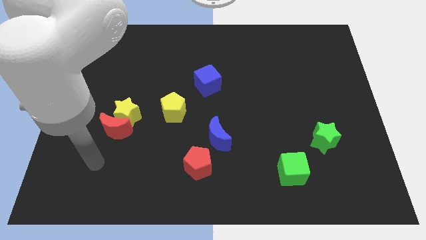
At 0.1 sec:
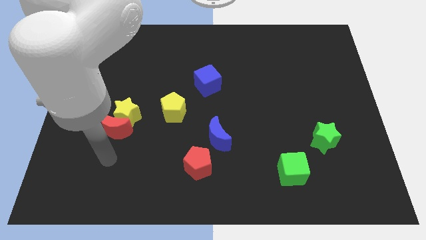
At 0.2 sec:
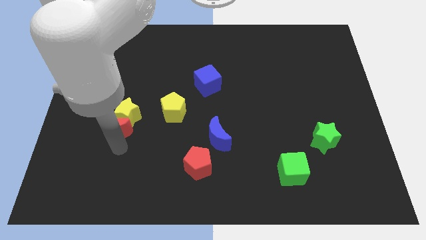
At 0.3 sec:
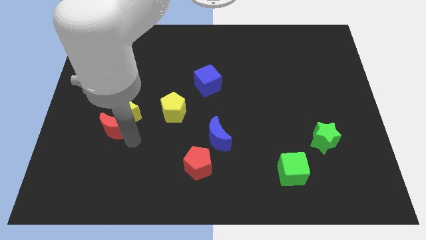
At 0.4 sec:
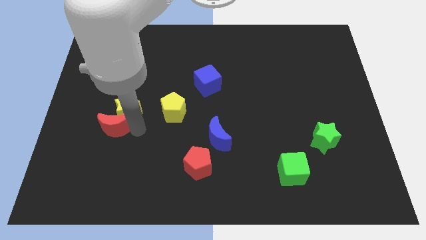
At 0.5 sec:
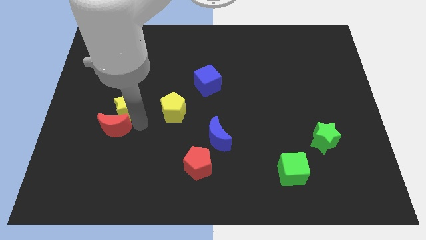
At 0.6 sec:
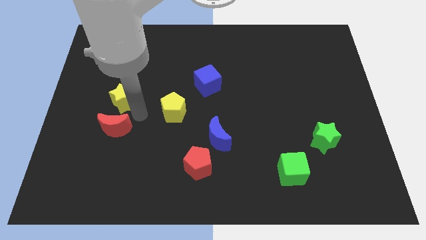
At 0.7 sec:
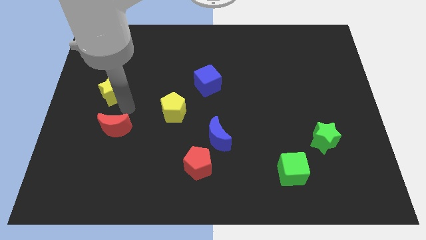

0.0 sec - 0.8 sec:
move the red moon away from the yellow star

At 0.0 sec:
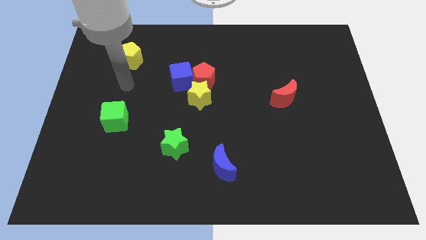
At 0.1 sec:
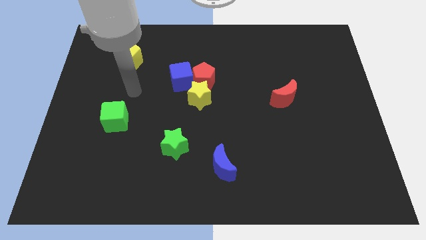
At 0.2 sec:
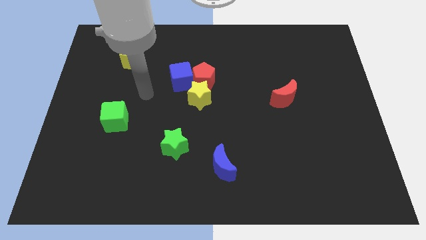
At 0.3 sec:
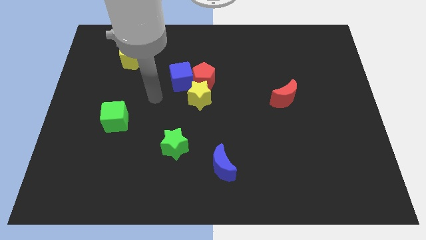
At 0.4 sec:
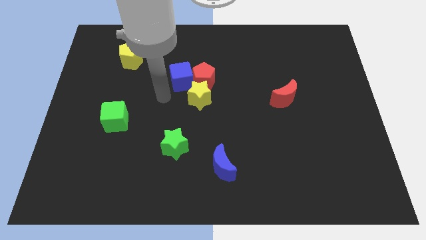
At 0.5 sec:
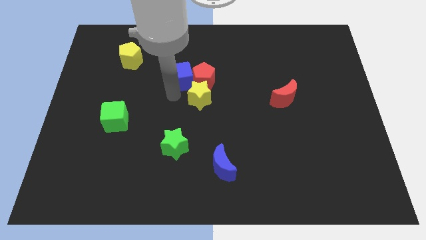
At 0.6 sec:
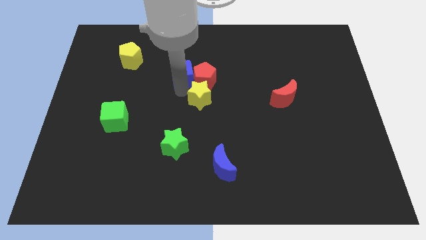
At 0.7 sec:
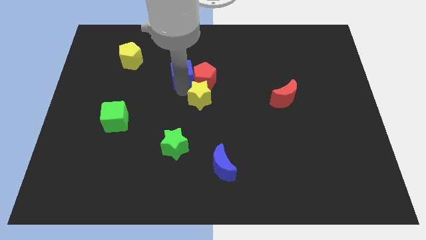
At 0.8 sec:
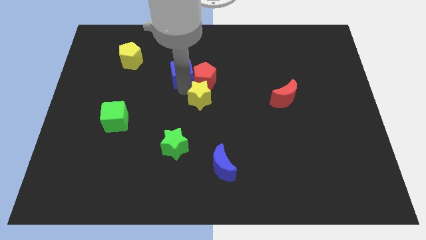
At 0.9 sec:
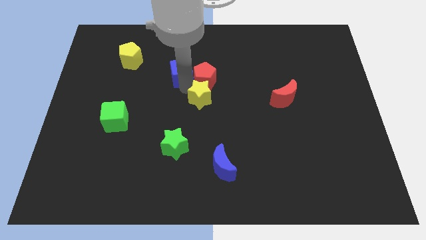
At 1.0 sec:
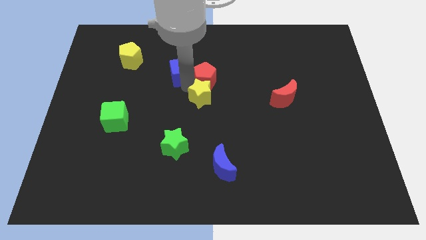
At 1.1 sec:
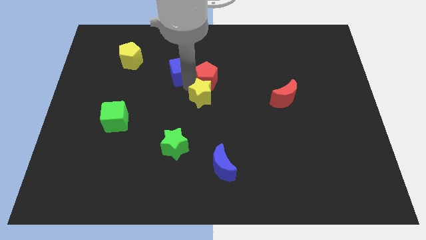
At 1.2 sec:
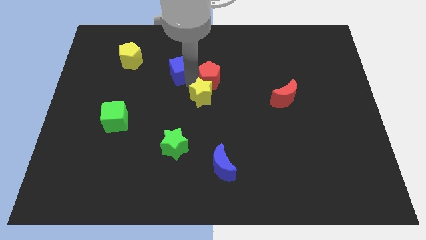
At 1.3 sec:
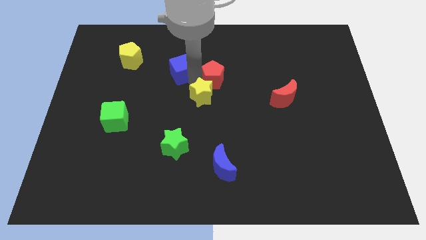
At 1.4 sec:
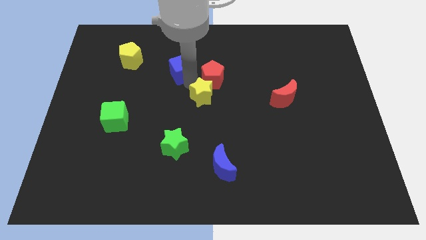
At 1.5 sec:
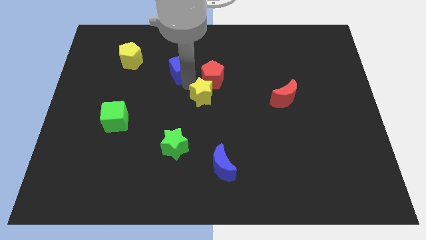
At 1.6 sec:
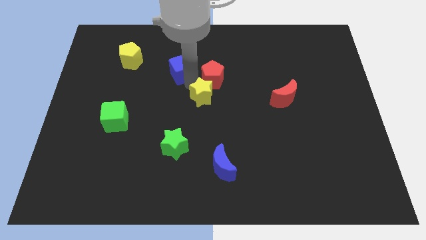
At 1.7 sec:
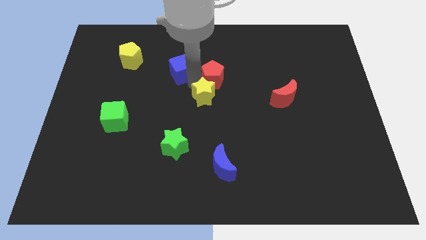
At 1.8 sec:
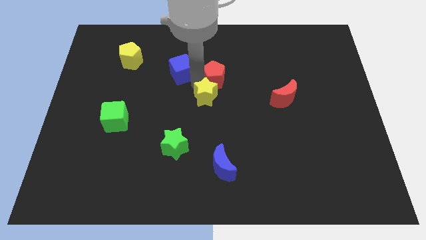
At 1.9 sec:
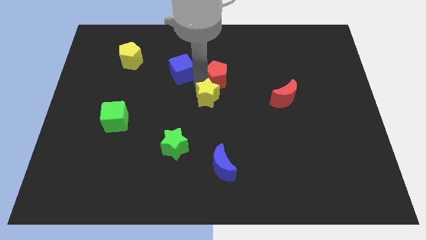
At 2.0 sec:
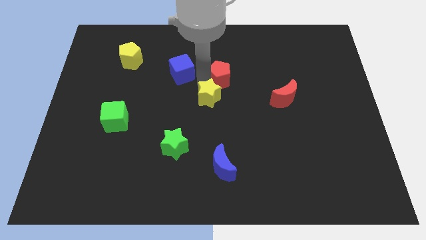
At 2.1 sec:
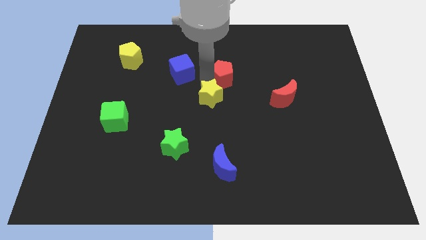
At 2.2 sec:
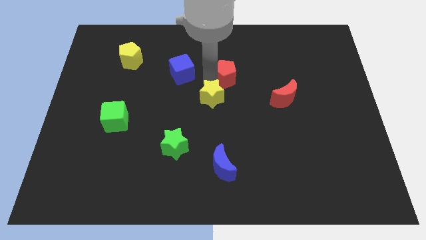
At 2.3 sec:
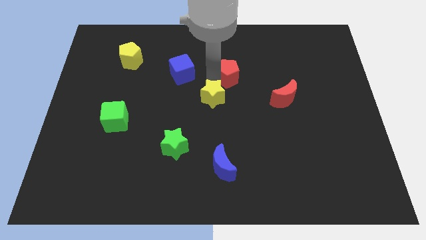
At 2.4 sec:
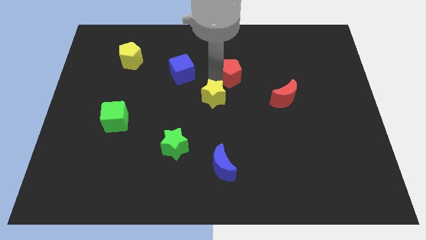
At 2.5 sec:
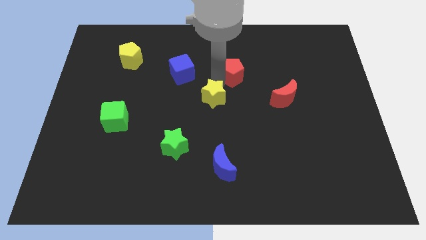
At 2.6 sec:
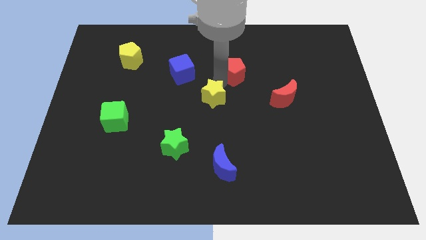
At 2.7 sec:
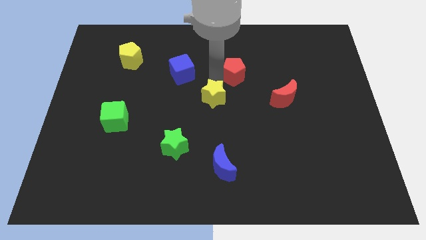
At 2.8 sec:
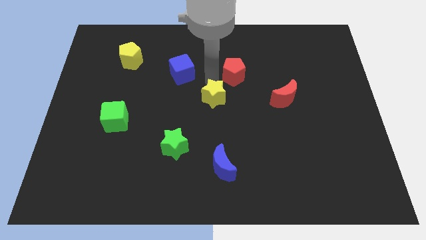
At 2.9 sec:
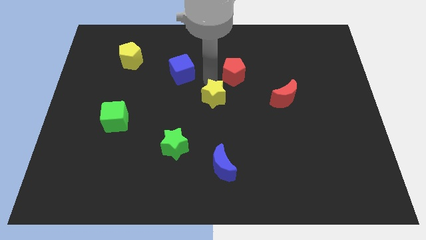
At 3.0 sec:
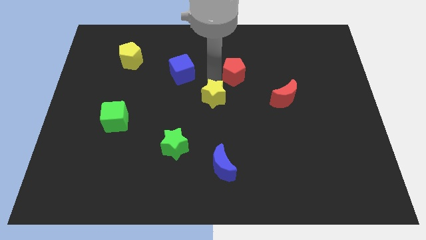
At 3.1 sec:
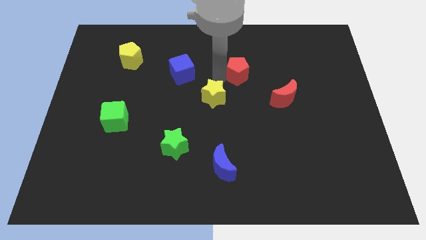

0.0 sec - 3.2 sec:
separate the red pentagon from the blue cube and yellow star

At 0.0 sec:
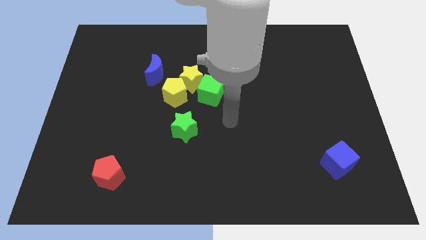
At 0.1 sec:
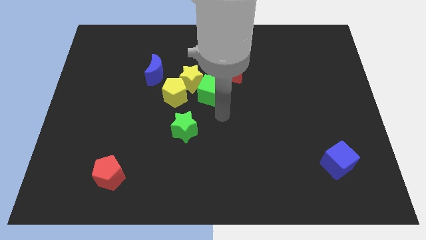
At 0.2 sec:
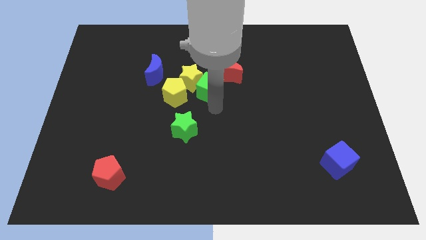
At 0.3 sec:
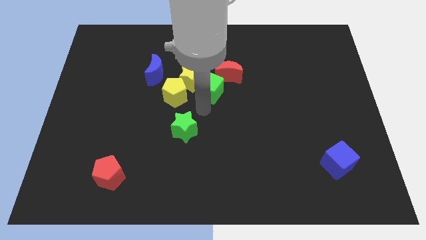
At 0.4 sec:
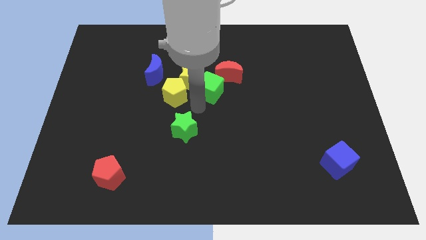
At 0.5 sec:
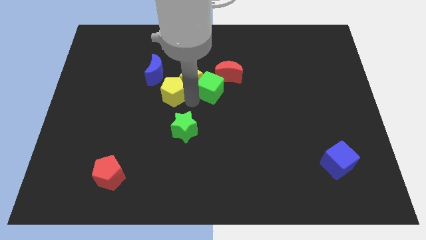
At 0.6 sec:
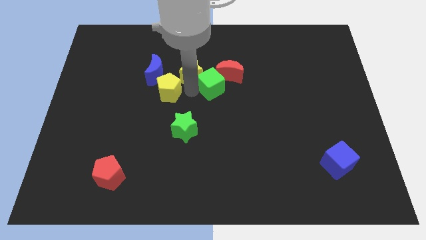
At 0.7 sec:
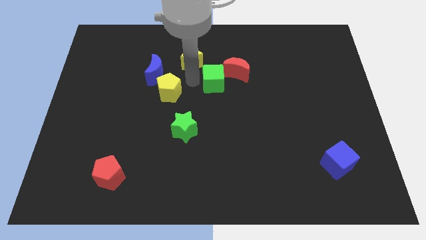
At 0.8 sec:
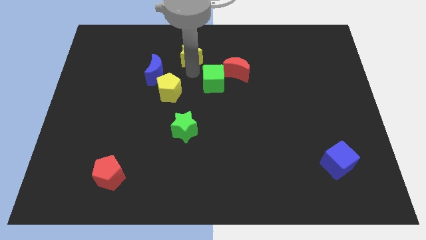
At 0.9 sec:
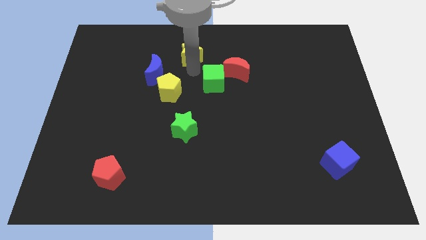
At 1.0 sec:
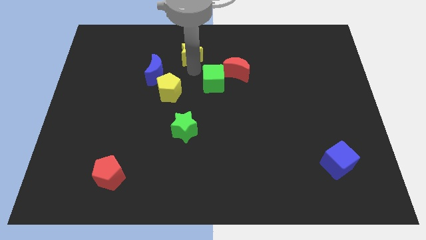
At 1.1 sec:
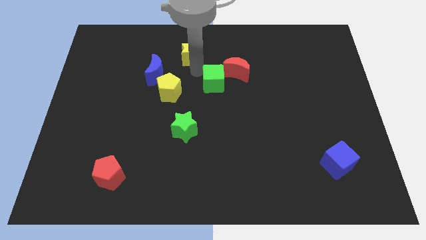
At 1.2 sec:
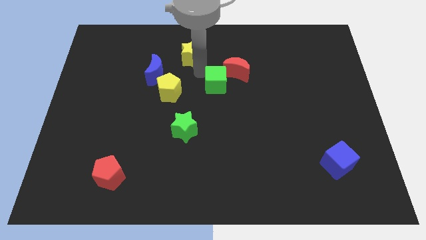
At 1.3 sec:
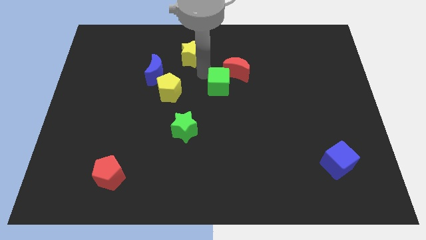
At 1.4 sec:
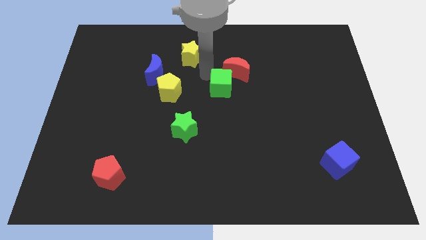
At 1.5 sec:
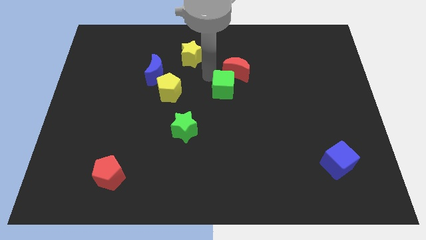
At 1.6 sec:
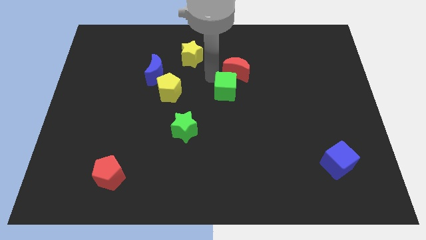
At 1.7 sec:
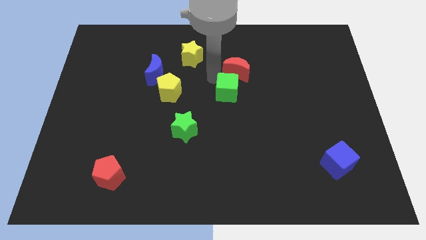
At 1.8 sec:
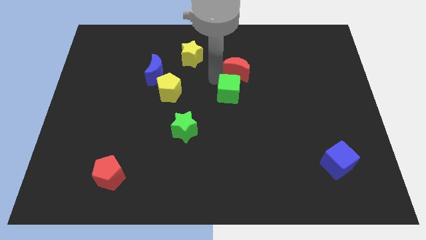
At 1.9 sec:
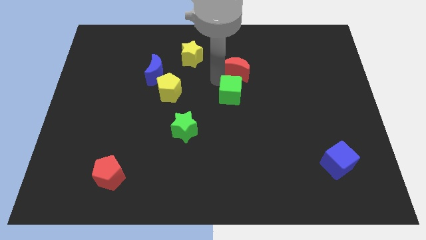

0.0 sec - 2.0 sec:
pull the green cube apart from the clump

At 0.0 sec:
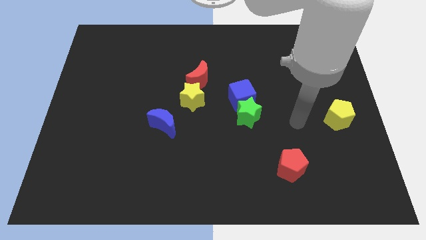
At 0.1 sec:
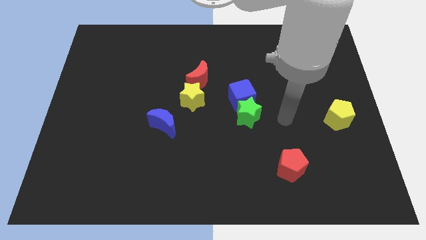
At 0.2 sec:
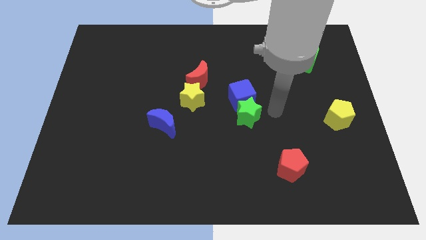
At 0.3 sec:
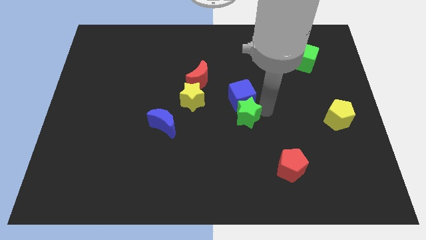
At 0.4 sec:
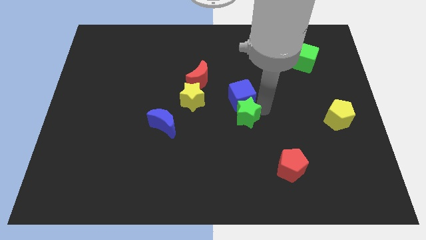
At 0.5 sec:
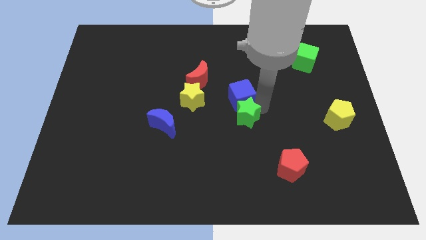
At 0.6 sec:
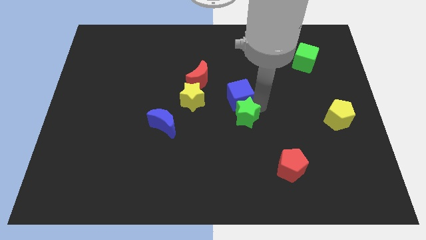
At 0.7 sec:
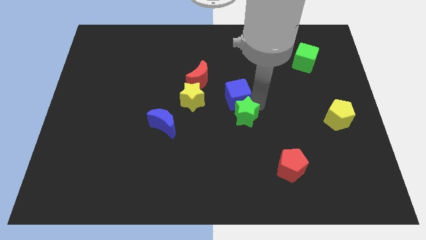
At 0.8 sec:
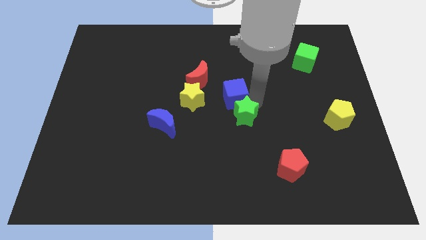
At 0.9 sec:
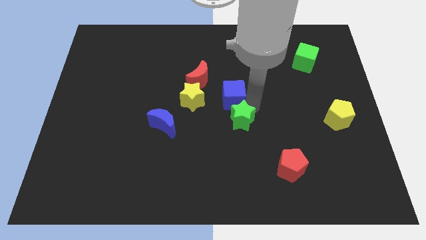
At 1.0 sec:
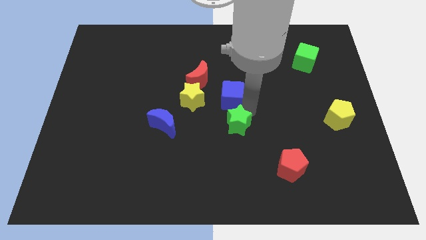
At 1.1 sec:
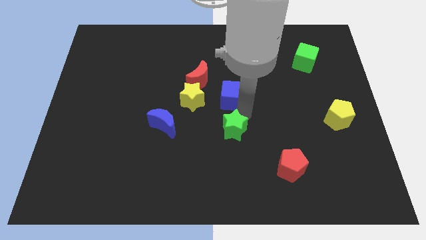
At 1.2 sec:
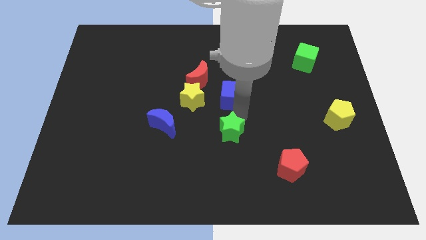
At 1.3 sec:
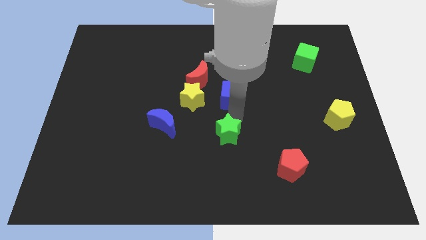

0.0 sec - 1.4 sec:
move the blue cube away from the green star

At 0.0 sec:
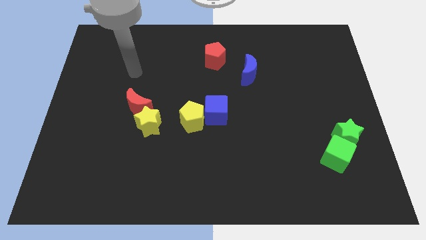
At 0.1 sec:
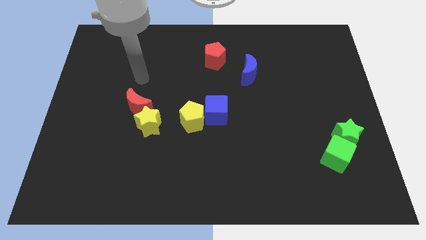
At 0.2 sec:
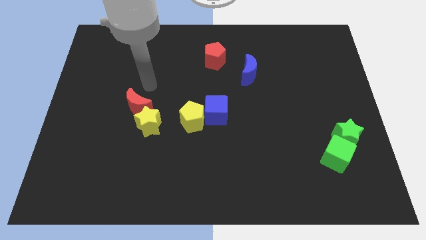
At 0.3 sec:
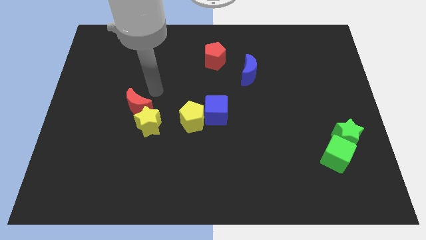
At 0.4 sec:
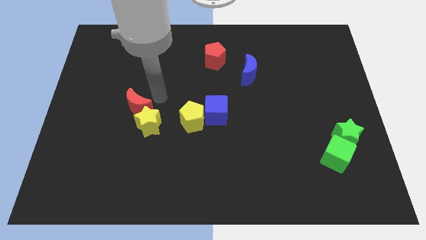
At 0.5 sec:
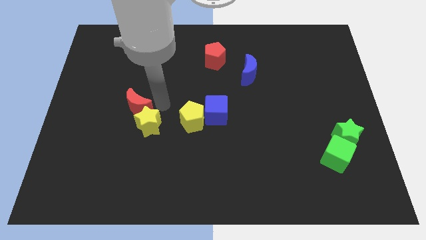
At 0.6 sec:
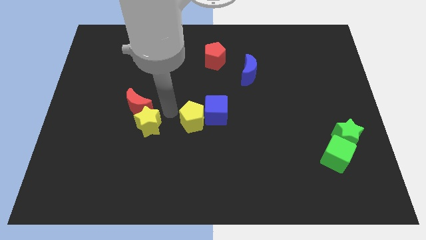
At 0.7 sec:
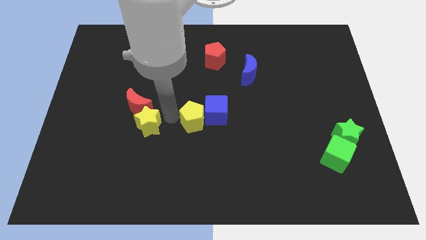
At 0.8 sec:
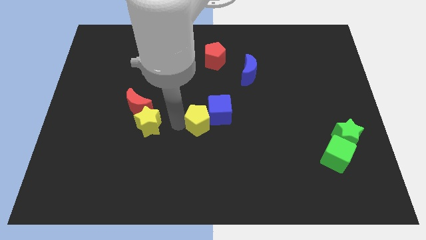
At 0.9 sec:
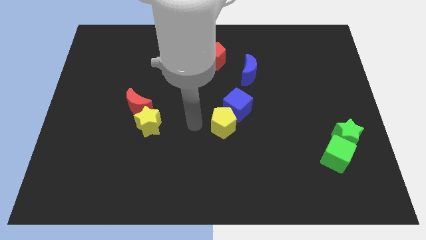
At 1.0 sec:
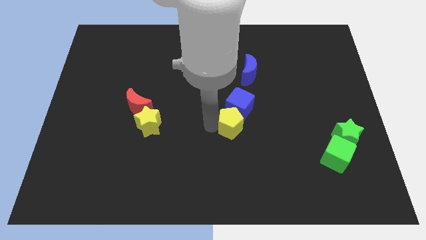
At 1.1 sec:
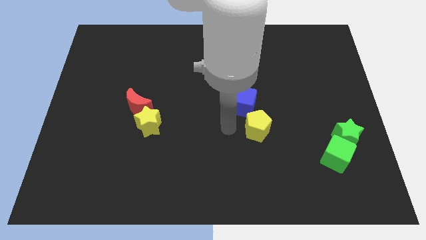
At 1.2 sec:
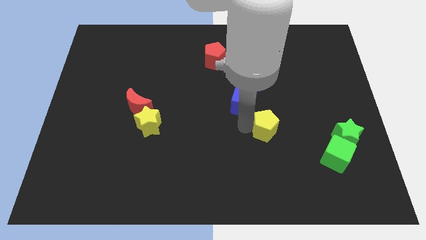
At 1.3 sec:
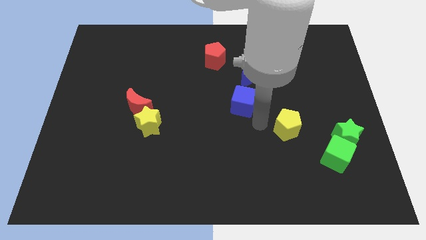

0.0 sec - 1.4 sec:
separate the blue cube from the yellow pentagon

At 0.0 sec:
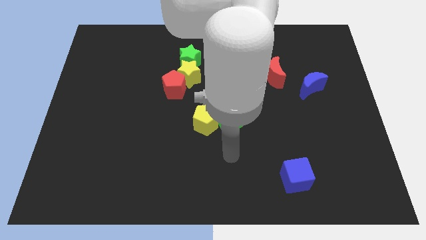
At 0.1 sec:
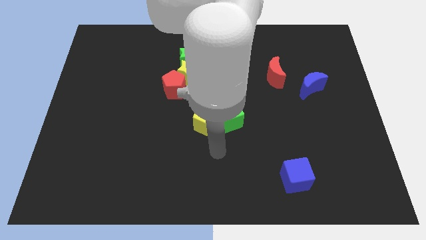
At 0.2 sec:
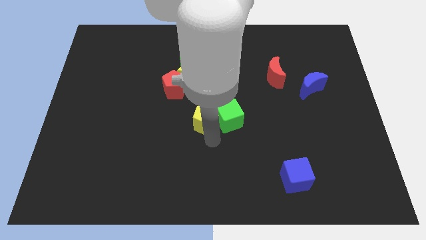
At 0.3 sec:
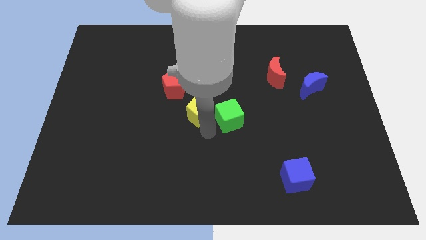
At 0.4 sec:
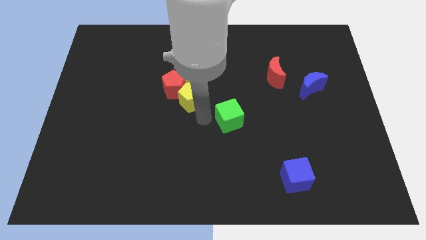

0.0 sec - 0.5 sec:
separate the green cube from the yellow pentagon
